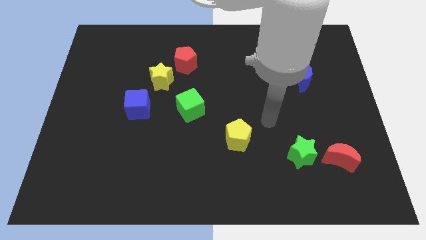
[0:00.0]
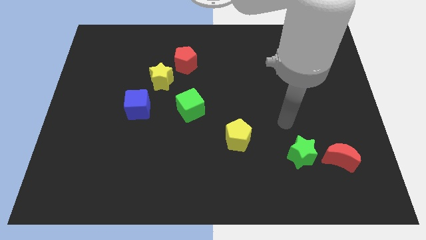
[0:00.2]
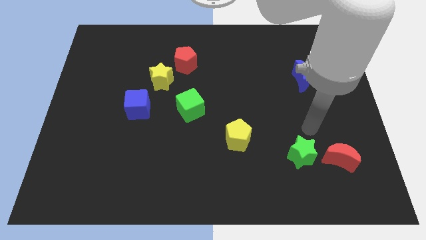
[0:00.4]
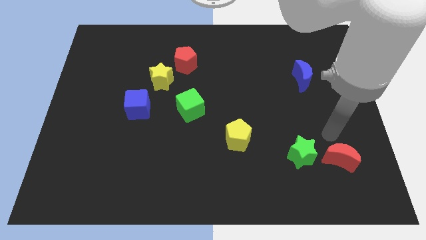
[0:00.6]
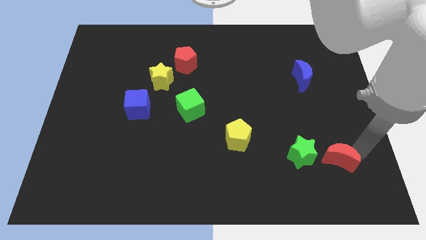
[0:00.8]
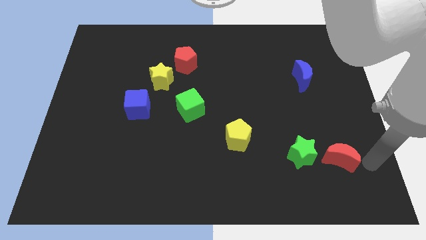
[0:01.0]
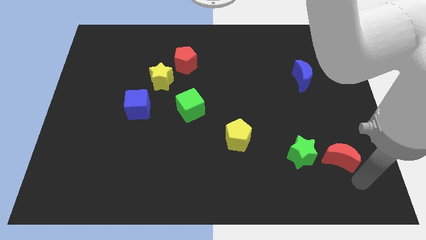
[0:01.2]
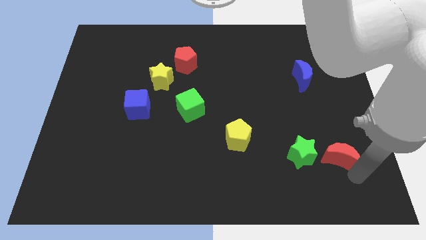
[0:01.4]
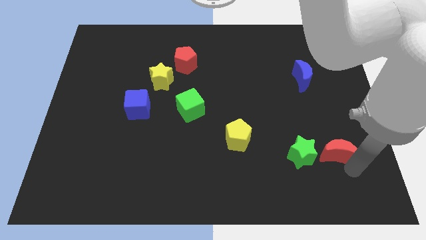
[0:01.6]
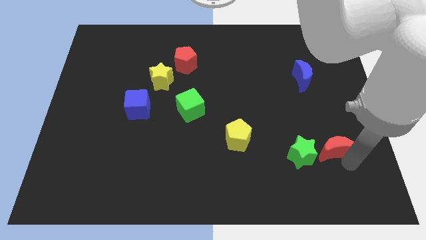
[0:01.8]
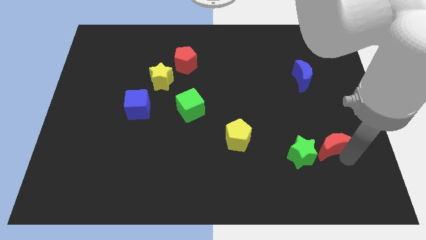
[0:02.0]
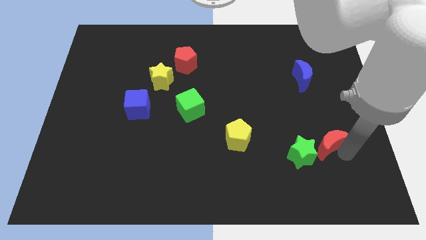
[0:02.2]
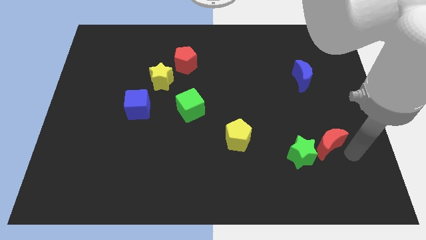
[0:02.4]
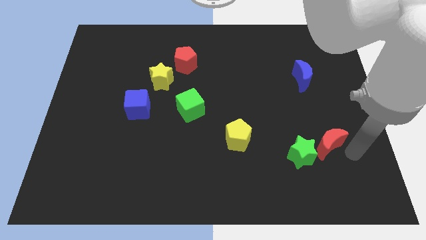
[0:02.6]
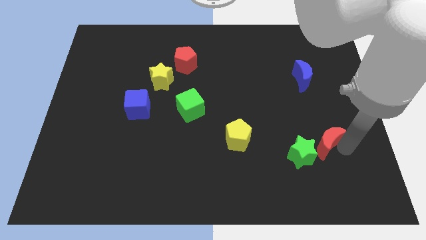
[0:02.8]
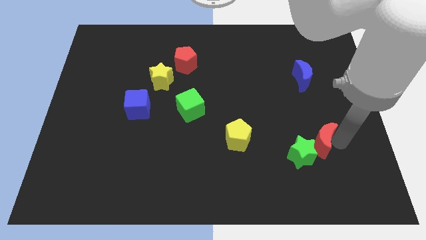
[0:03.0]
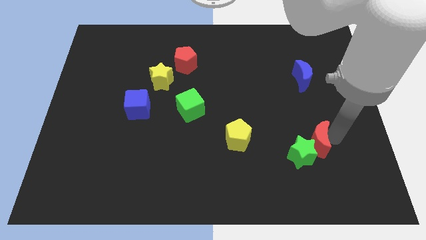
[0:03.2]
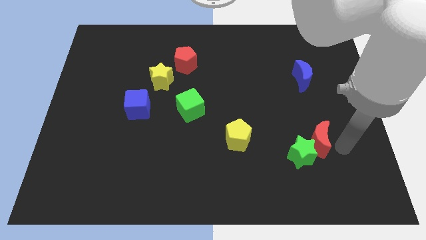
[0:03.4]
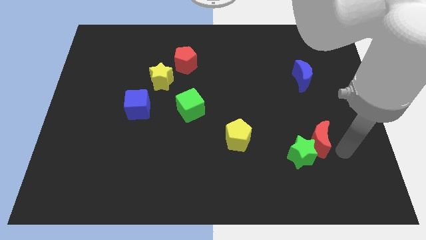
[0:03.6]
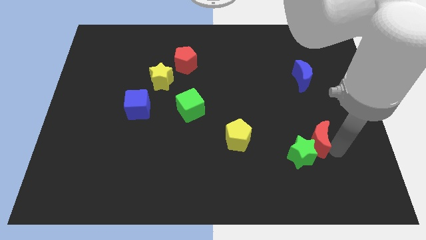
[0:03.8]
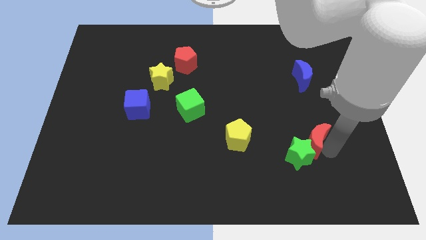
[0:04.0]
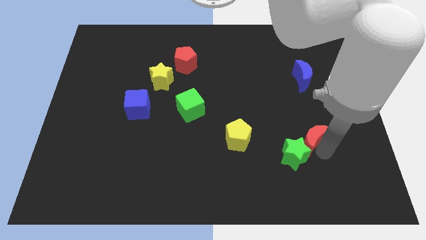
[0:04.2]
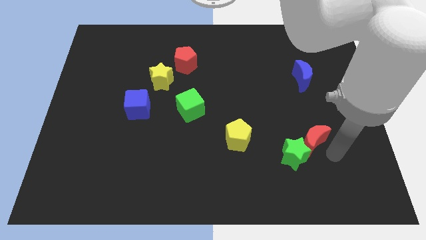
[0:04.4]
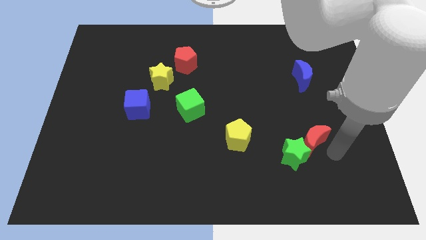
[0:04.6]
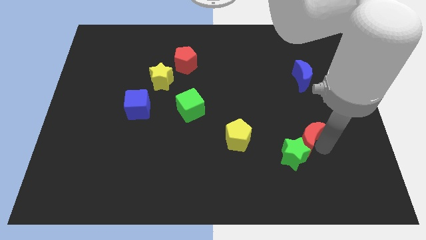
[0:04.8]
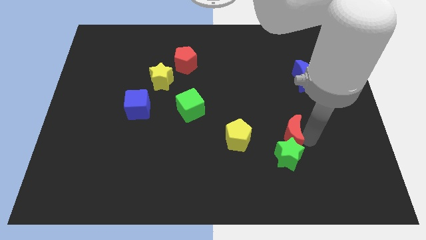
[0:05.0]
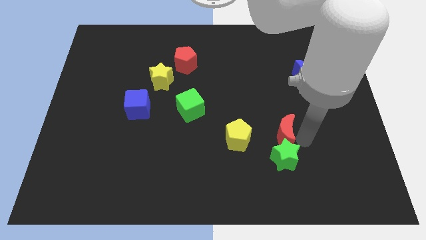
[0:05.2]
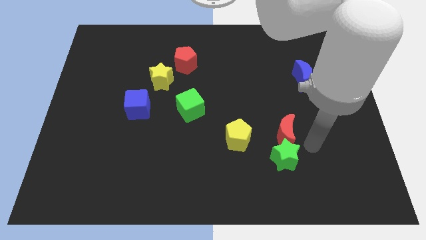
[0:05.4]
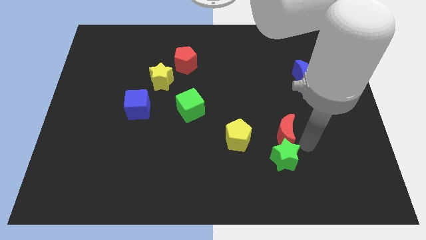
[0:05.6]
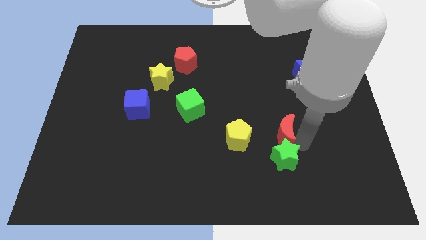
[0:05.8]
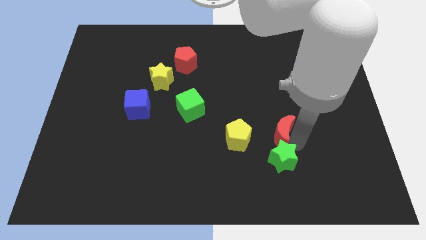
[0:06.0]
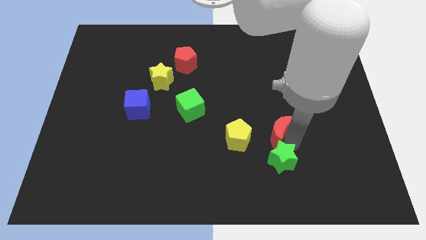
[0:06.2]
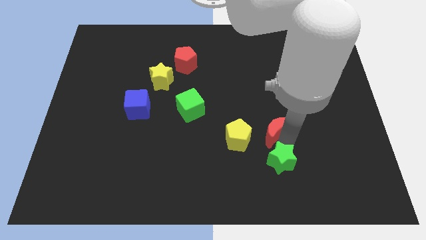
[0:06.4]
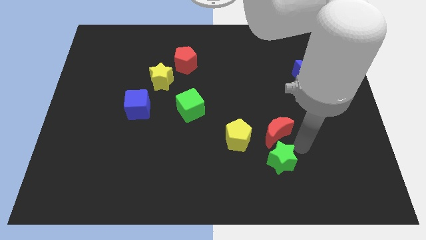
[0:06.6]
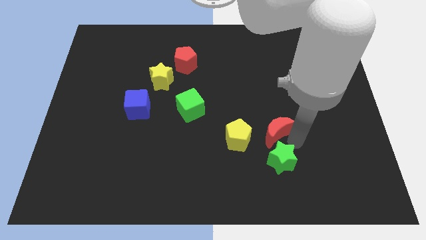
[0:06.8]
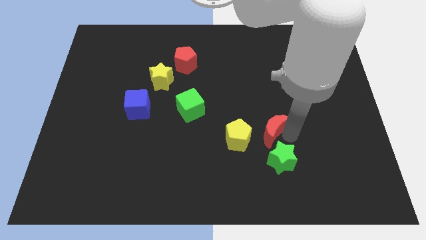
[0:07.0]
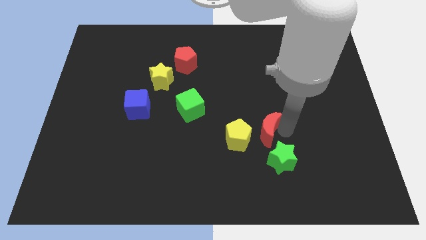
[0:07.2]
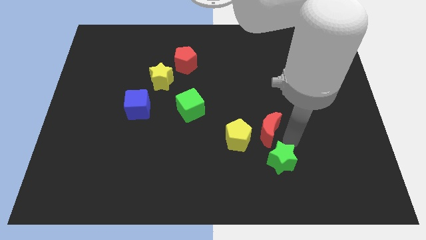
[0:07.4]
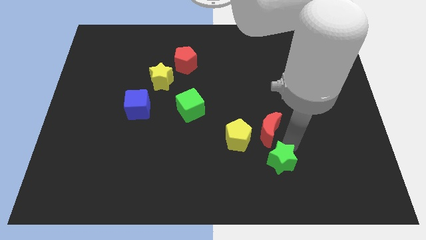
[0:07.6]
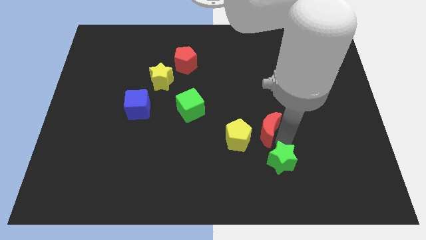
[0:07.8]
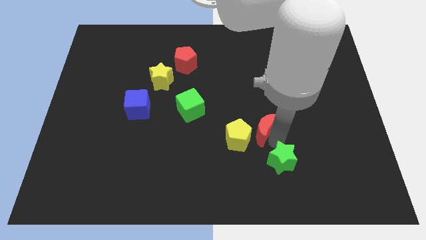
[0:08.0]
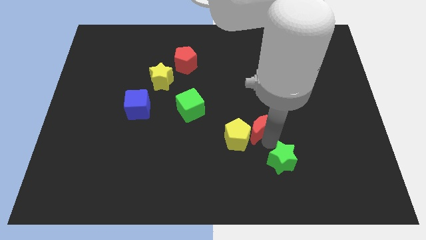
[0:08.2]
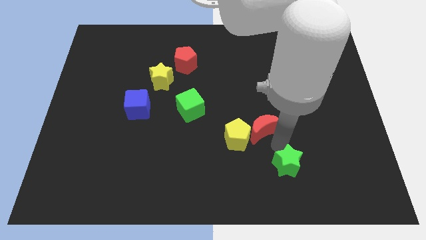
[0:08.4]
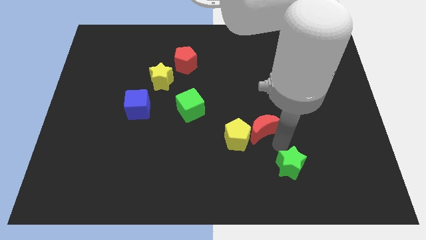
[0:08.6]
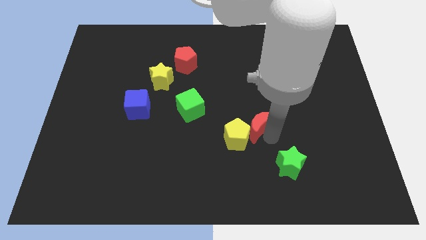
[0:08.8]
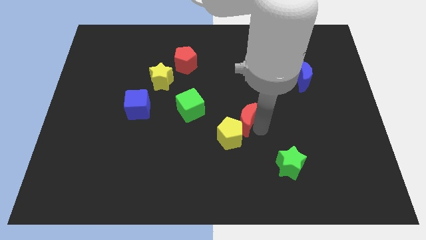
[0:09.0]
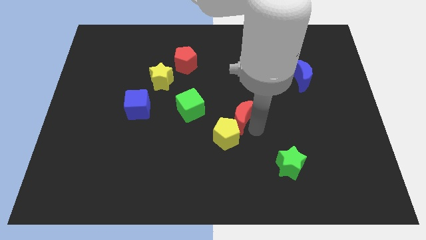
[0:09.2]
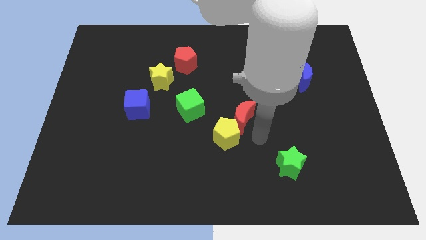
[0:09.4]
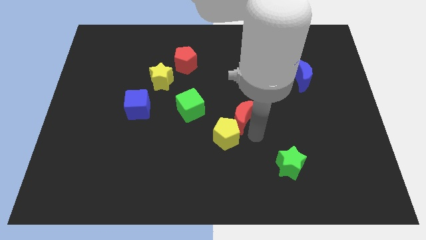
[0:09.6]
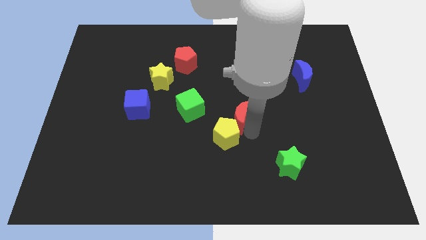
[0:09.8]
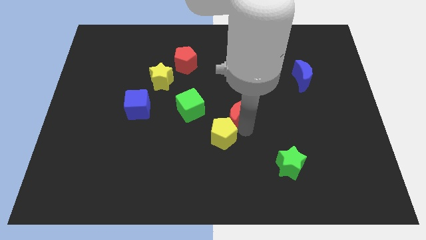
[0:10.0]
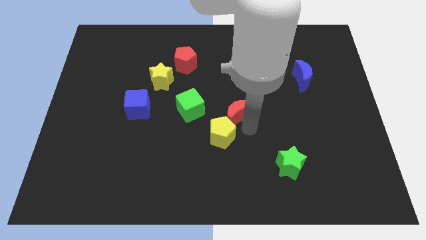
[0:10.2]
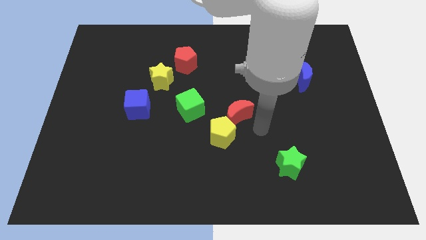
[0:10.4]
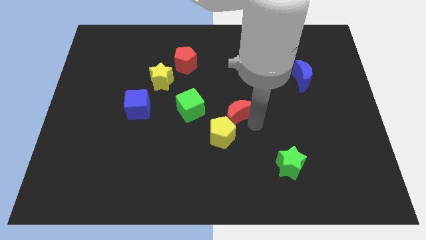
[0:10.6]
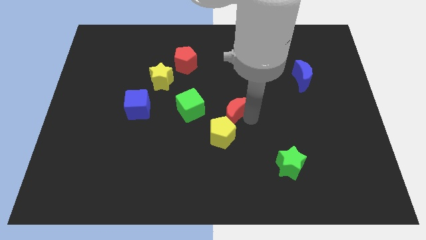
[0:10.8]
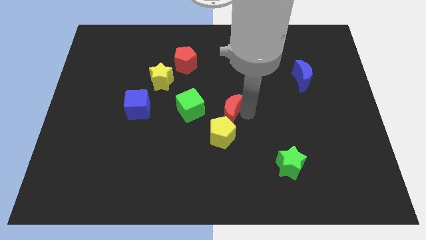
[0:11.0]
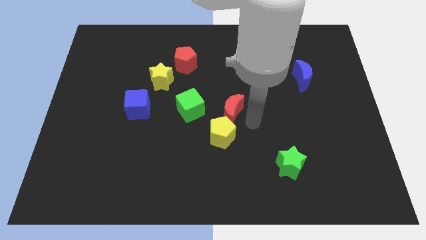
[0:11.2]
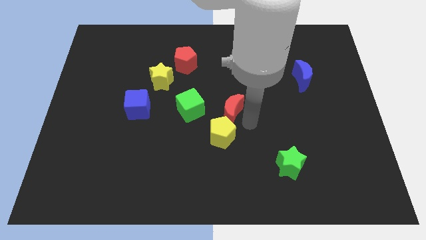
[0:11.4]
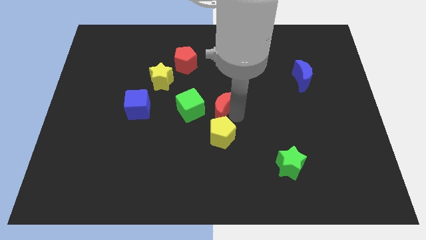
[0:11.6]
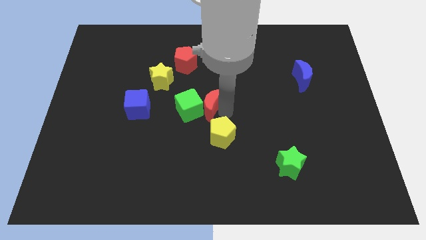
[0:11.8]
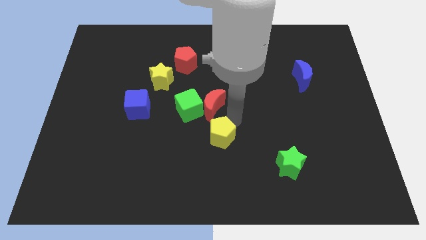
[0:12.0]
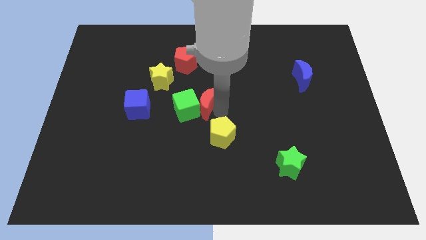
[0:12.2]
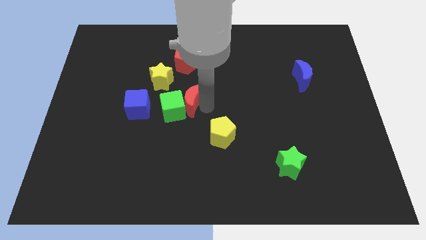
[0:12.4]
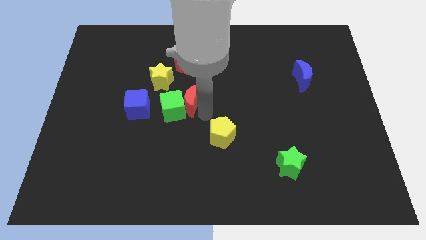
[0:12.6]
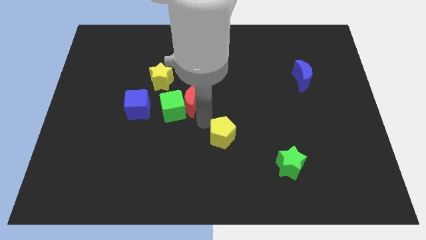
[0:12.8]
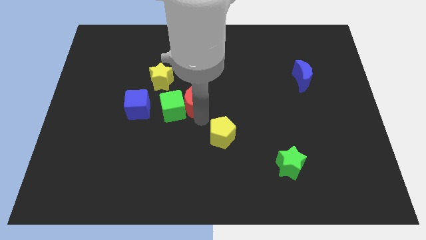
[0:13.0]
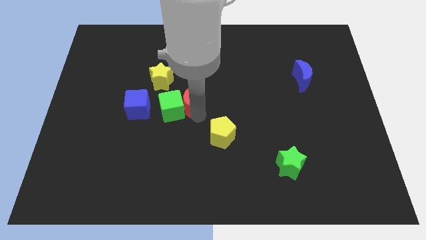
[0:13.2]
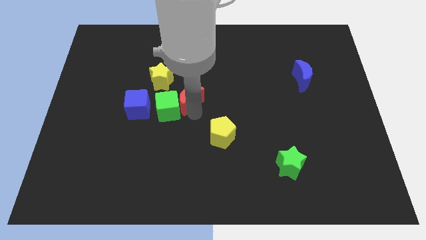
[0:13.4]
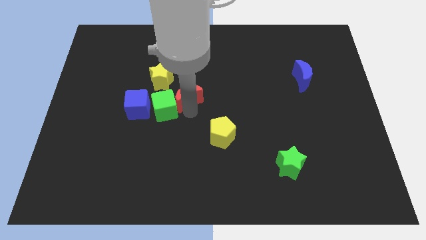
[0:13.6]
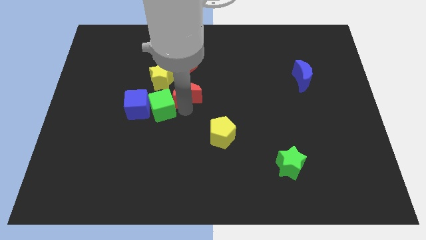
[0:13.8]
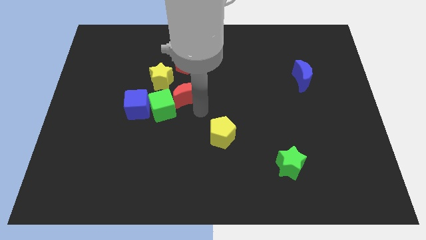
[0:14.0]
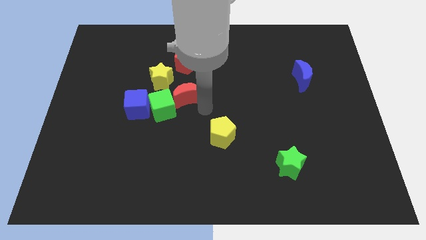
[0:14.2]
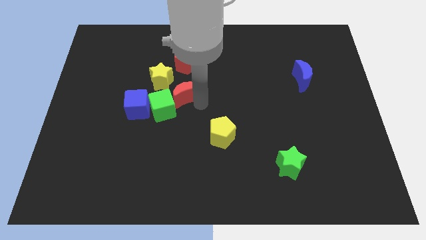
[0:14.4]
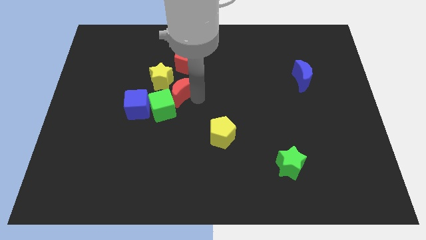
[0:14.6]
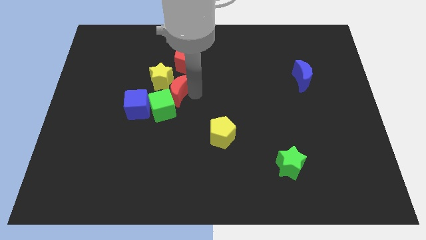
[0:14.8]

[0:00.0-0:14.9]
move the red moon towards the yellow star
